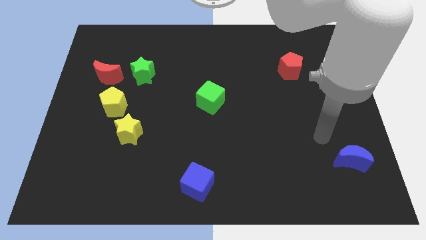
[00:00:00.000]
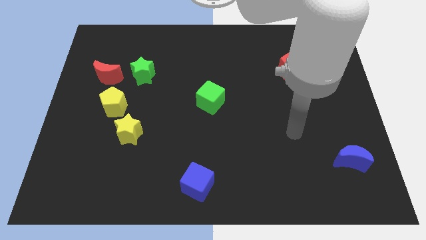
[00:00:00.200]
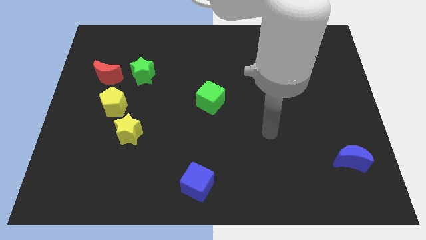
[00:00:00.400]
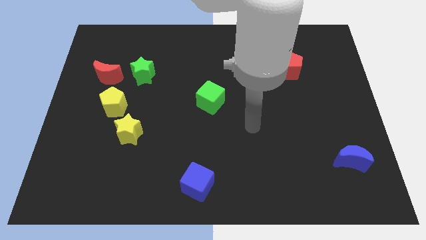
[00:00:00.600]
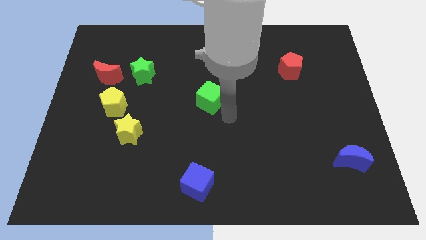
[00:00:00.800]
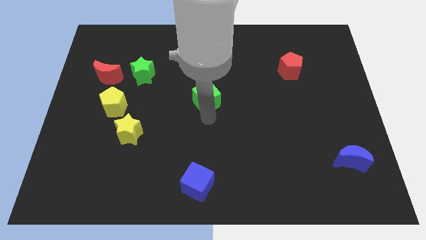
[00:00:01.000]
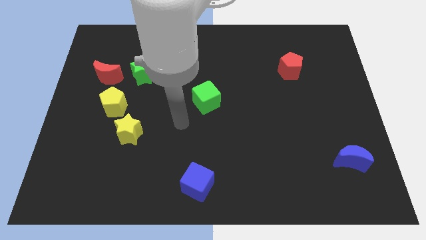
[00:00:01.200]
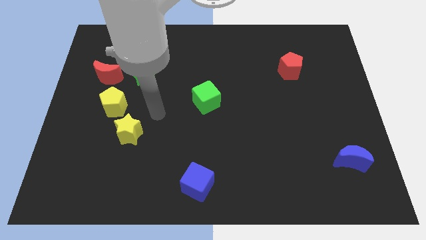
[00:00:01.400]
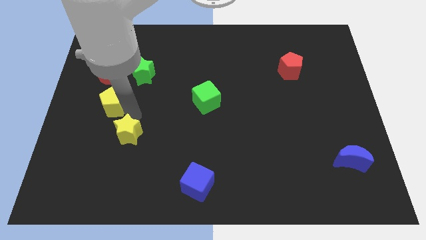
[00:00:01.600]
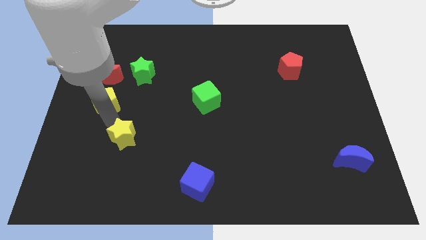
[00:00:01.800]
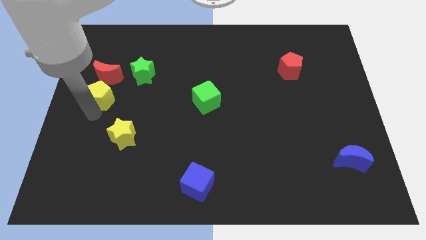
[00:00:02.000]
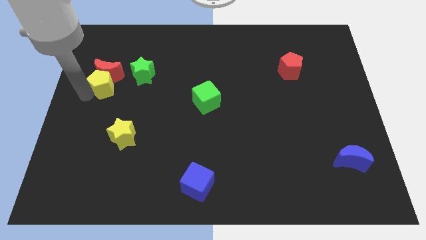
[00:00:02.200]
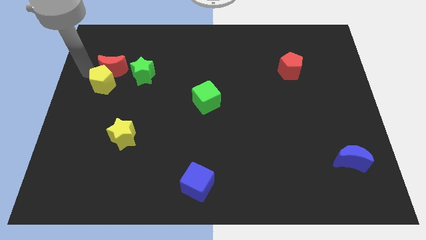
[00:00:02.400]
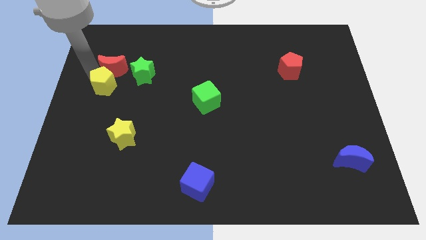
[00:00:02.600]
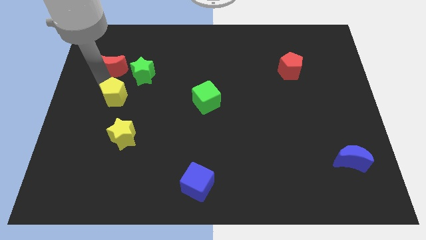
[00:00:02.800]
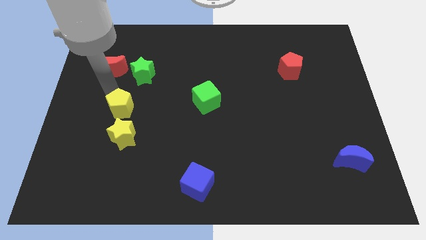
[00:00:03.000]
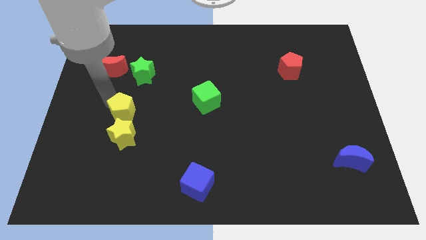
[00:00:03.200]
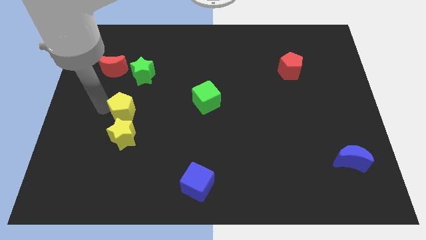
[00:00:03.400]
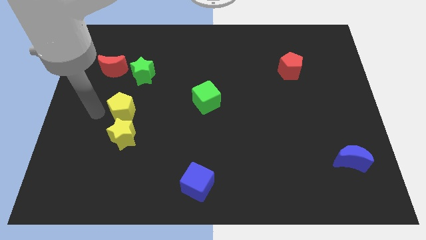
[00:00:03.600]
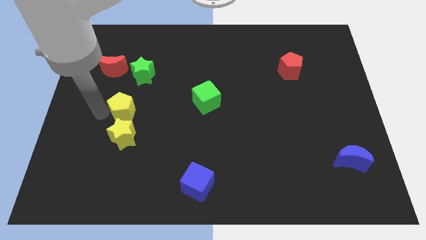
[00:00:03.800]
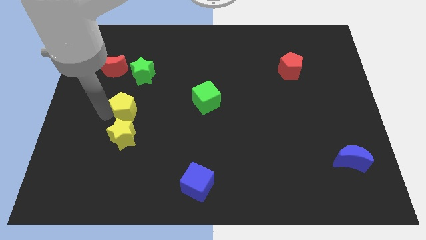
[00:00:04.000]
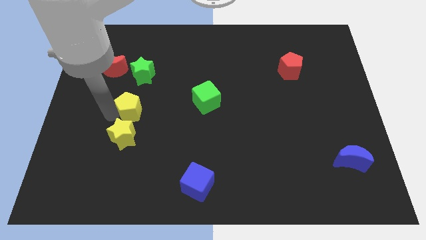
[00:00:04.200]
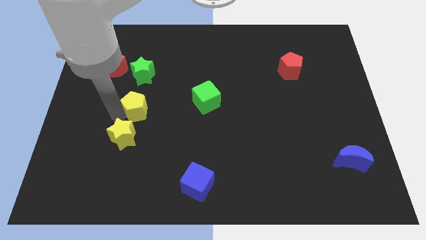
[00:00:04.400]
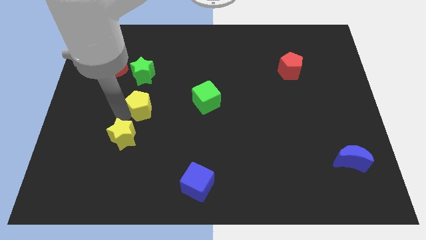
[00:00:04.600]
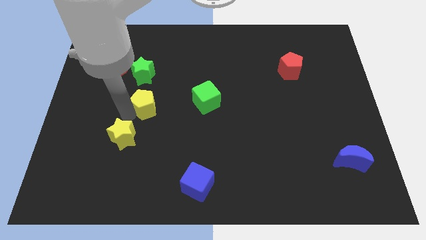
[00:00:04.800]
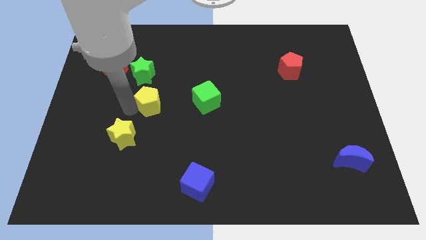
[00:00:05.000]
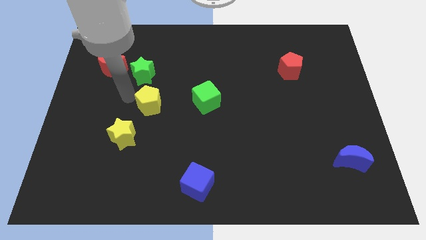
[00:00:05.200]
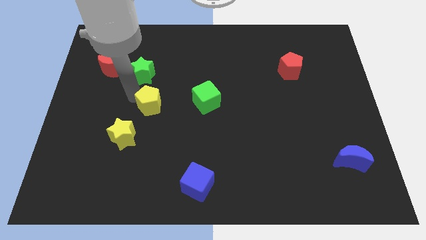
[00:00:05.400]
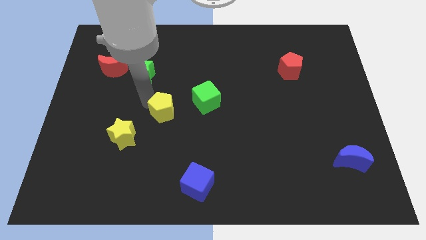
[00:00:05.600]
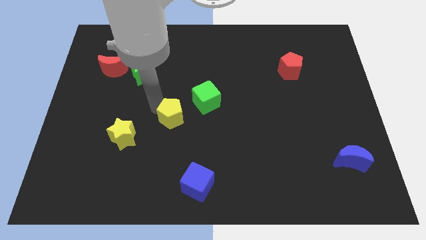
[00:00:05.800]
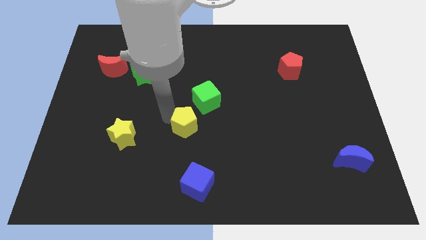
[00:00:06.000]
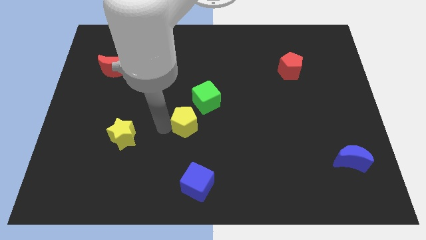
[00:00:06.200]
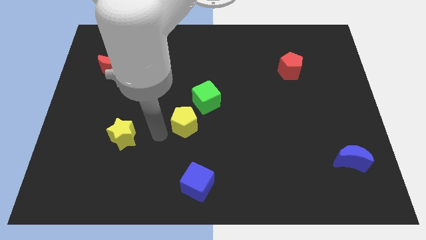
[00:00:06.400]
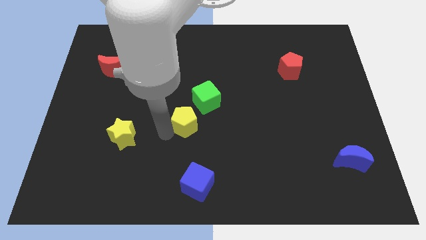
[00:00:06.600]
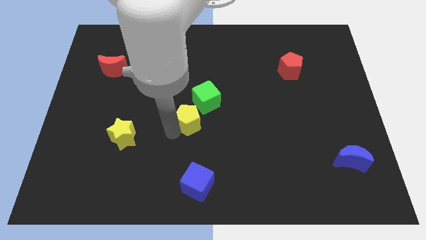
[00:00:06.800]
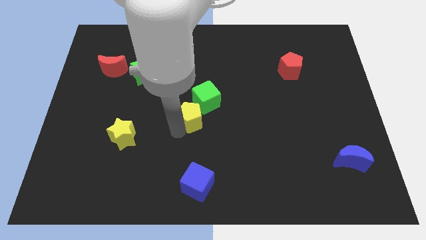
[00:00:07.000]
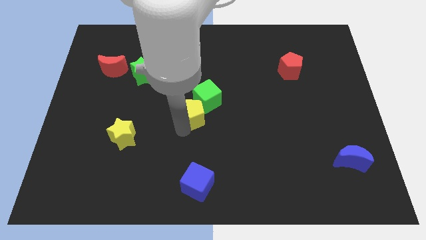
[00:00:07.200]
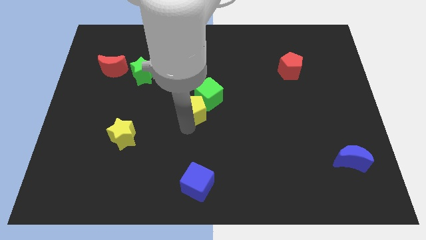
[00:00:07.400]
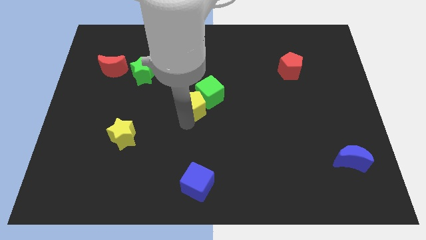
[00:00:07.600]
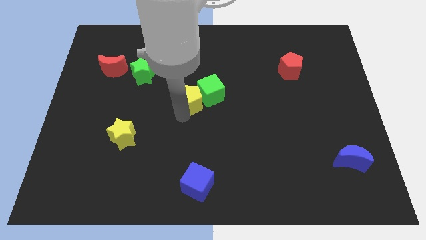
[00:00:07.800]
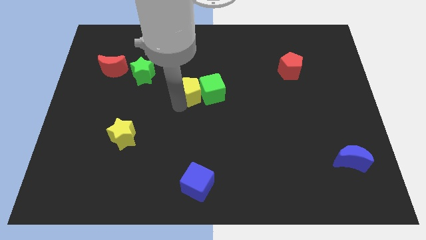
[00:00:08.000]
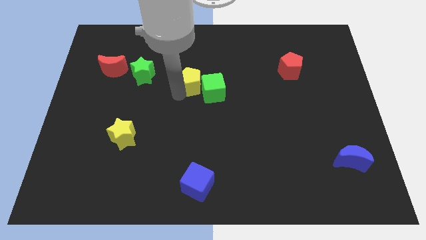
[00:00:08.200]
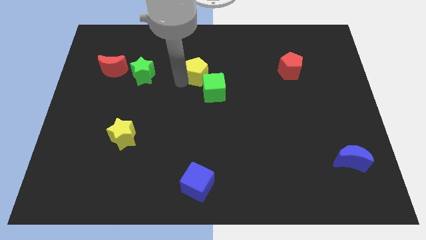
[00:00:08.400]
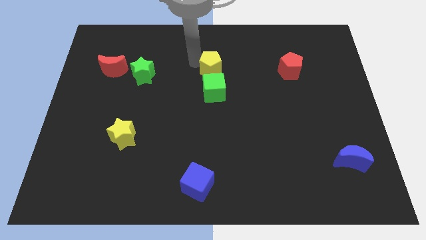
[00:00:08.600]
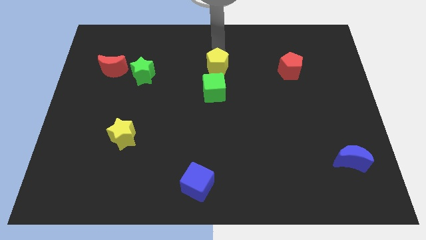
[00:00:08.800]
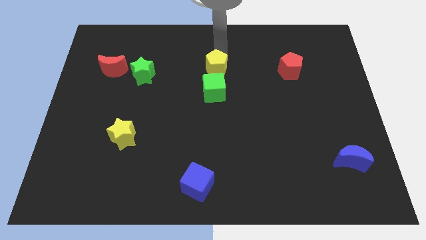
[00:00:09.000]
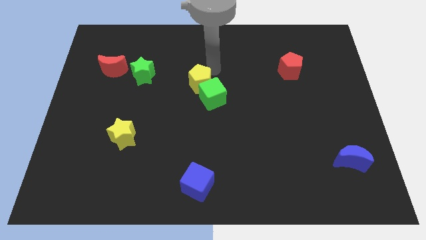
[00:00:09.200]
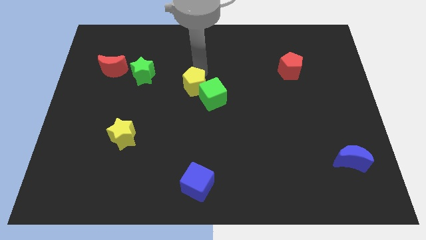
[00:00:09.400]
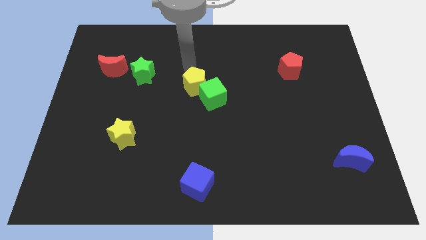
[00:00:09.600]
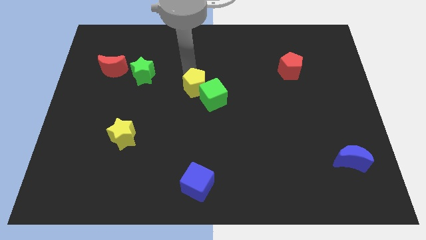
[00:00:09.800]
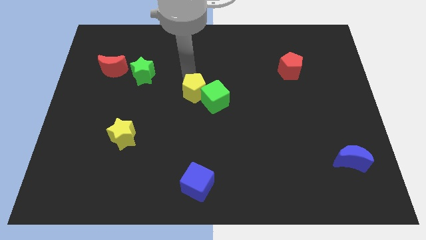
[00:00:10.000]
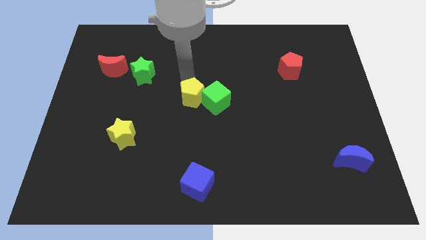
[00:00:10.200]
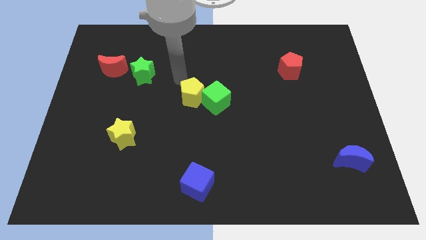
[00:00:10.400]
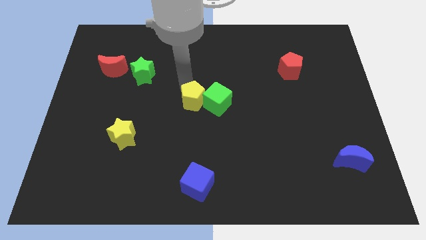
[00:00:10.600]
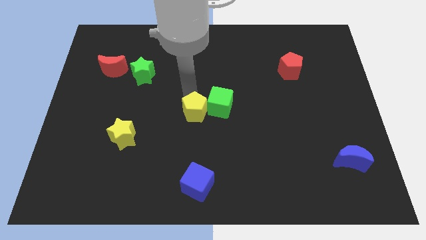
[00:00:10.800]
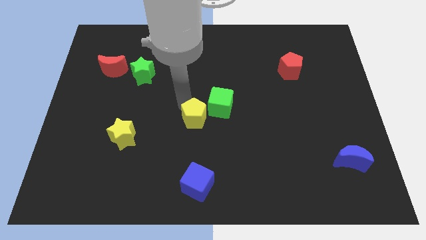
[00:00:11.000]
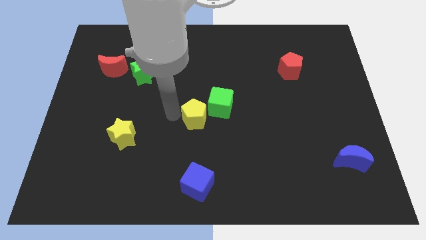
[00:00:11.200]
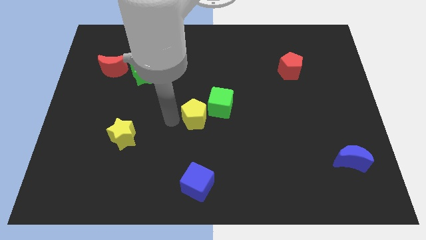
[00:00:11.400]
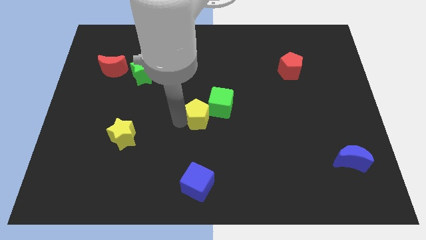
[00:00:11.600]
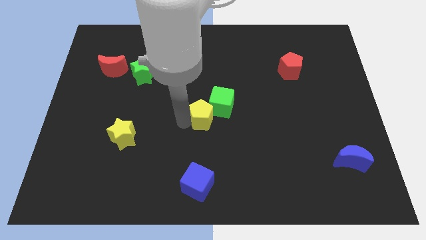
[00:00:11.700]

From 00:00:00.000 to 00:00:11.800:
move the yellow pentagon right

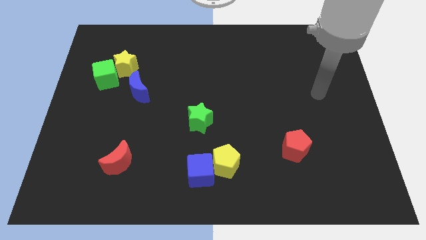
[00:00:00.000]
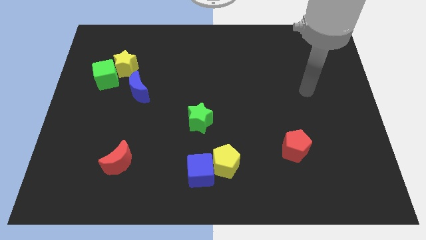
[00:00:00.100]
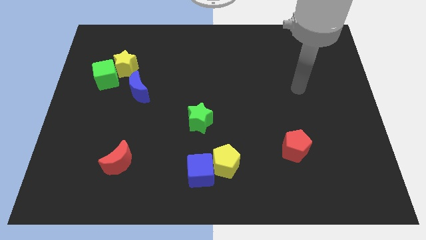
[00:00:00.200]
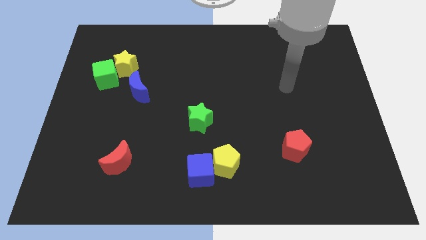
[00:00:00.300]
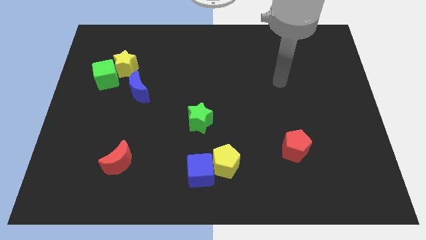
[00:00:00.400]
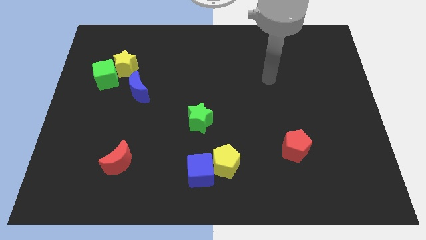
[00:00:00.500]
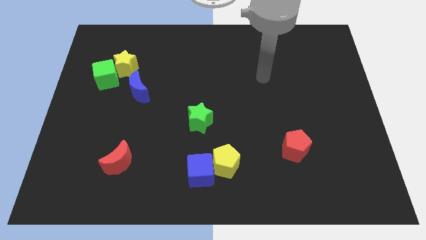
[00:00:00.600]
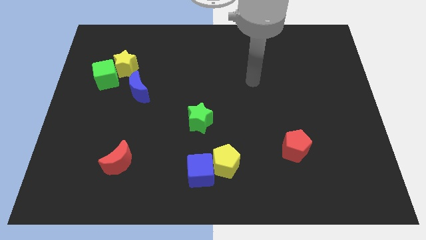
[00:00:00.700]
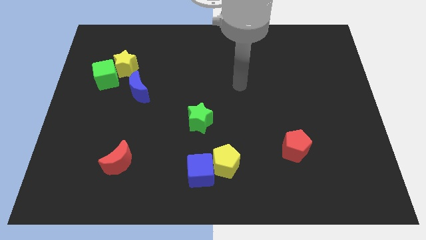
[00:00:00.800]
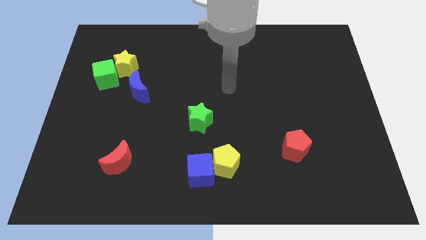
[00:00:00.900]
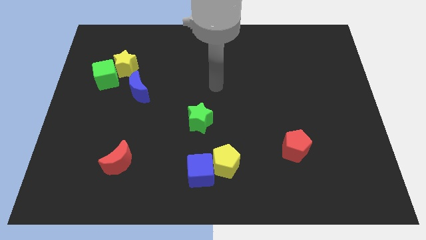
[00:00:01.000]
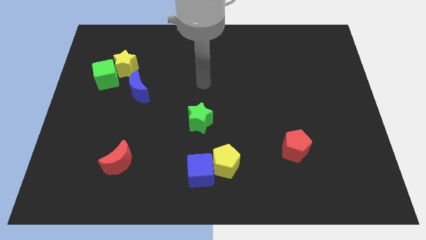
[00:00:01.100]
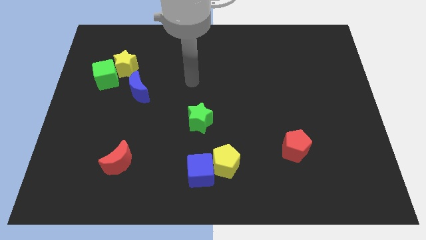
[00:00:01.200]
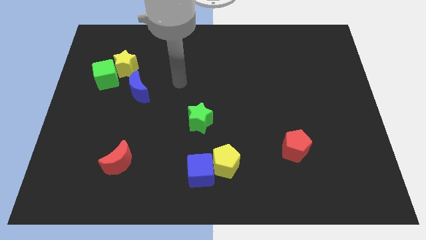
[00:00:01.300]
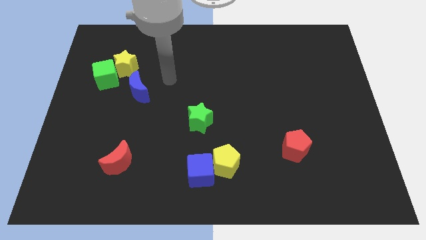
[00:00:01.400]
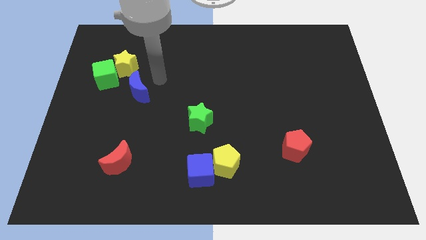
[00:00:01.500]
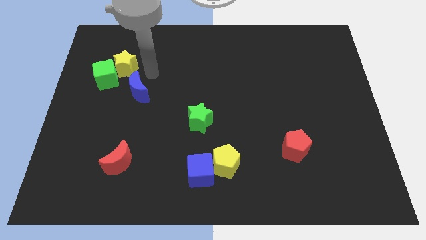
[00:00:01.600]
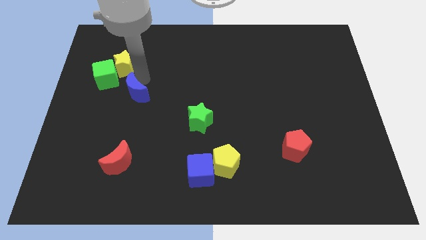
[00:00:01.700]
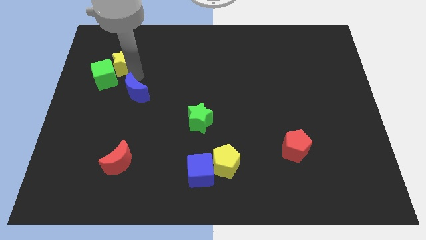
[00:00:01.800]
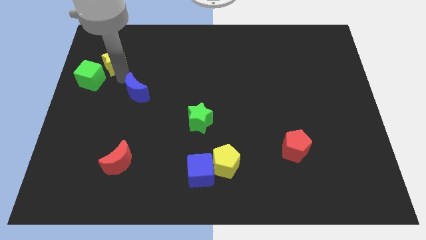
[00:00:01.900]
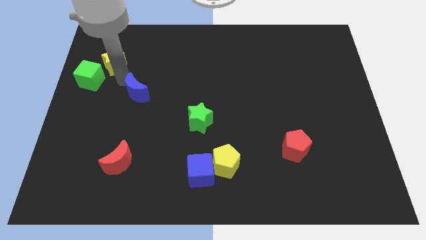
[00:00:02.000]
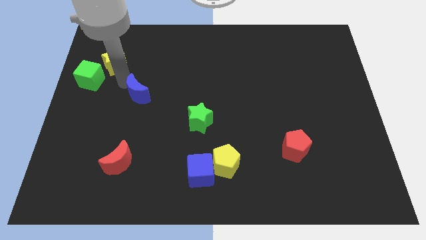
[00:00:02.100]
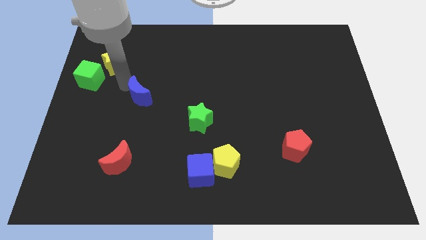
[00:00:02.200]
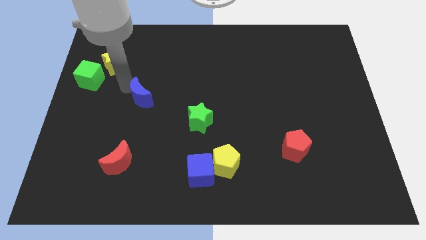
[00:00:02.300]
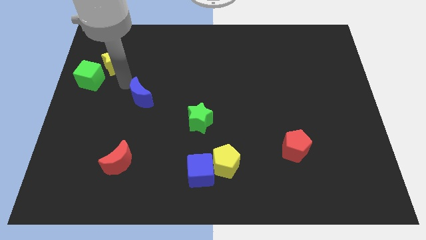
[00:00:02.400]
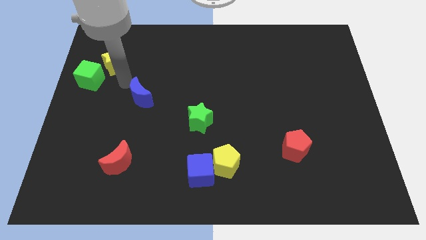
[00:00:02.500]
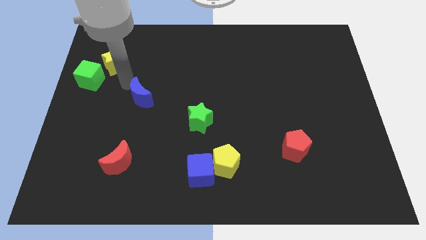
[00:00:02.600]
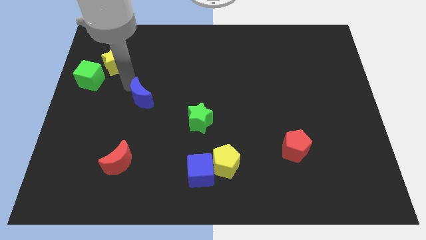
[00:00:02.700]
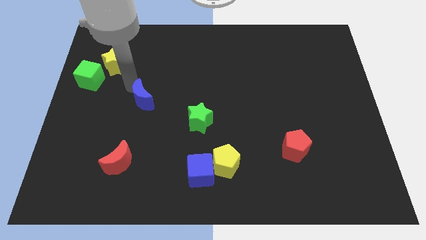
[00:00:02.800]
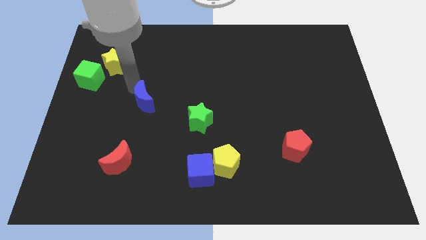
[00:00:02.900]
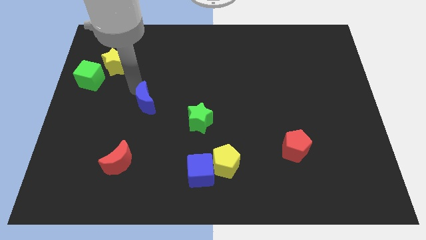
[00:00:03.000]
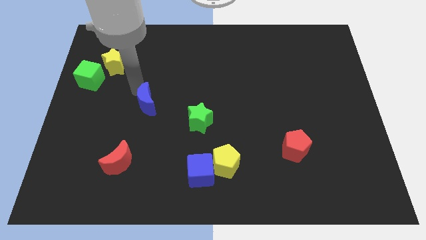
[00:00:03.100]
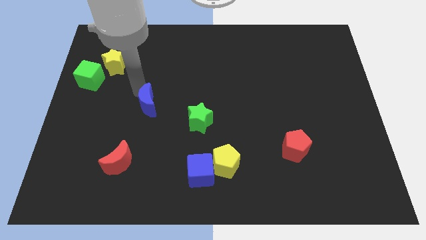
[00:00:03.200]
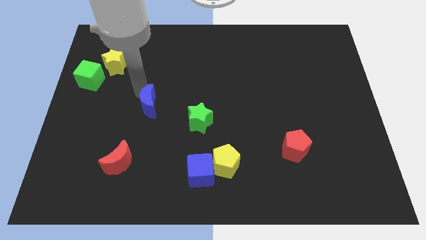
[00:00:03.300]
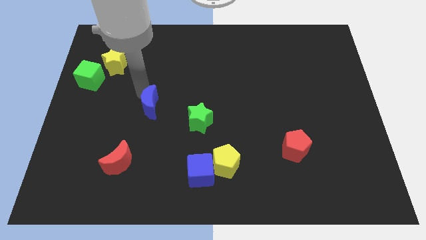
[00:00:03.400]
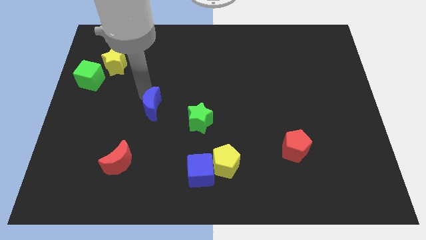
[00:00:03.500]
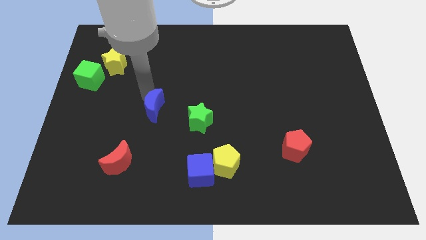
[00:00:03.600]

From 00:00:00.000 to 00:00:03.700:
slightly slide the blue moon downwards and then to the right
